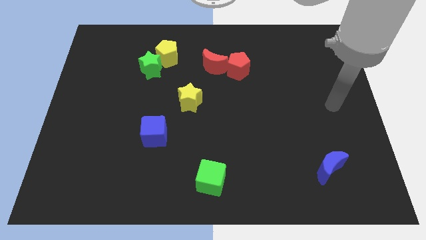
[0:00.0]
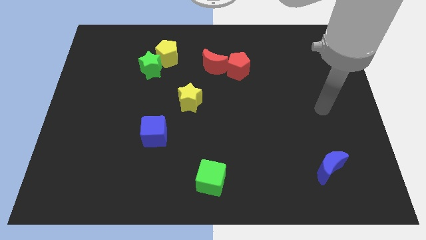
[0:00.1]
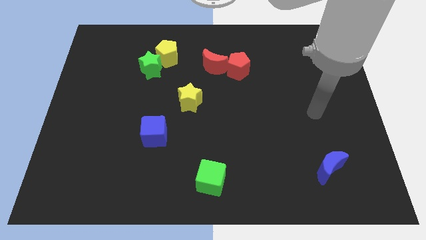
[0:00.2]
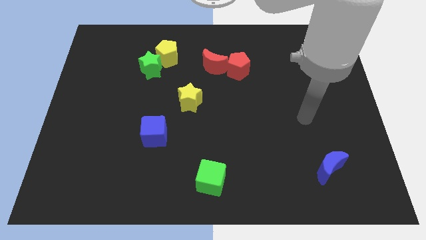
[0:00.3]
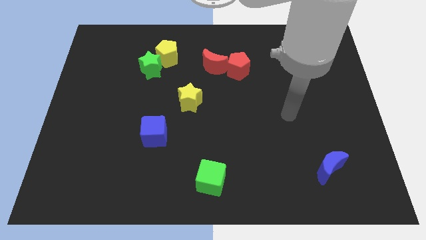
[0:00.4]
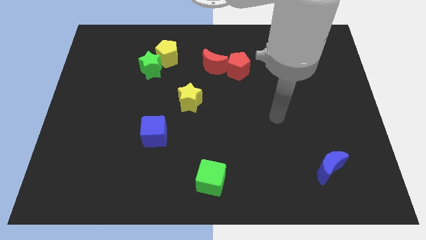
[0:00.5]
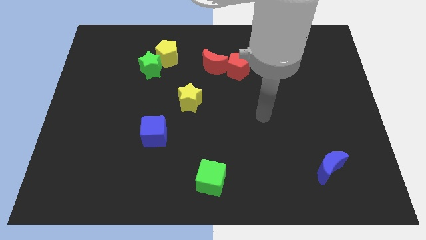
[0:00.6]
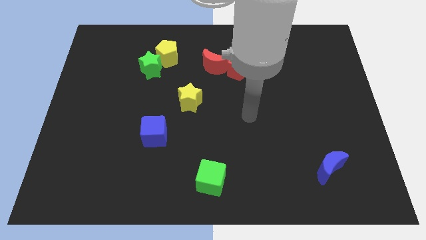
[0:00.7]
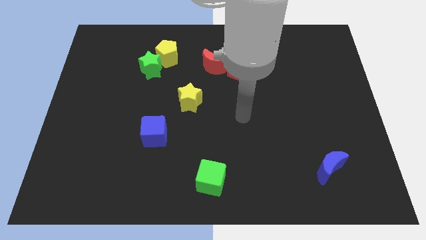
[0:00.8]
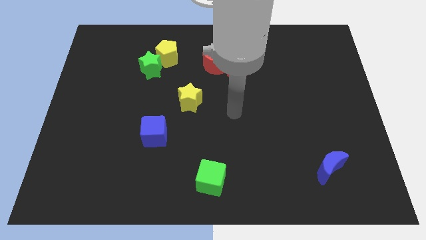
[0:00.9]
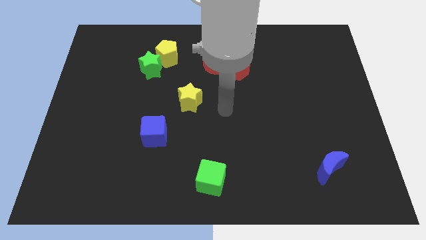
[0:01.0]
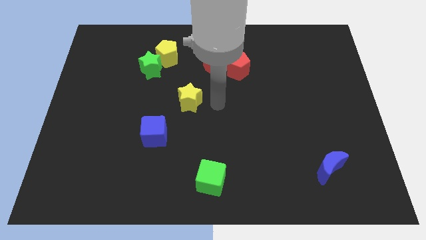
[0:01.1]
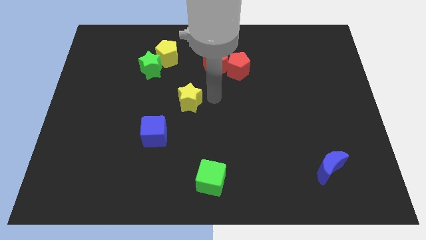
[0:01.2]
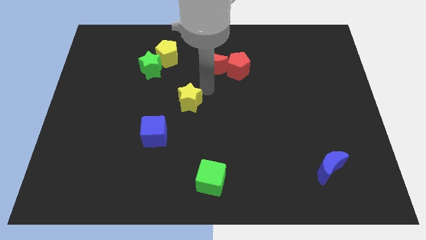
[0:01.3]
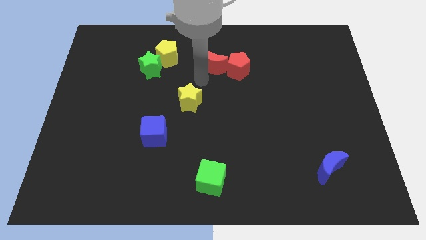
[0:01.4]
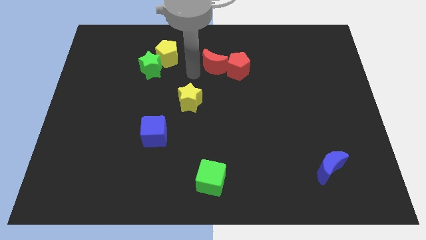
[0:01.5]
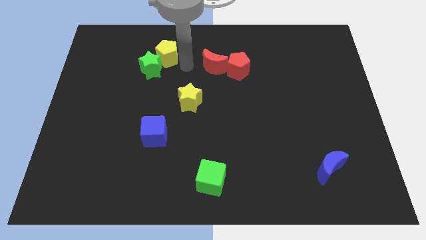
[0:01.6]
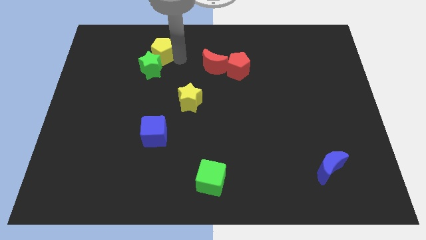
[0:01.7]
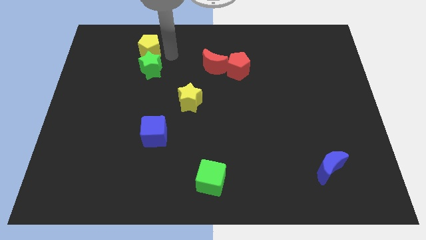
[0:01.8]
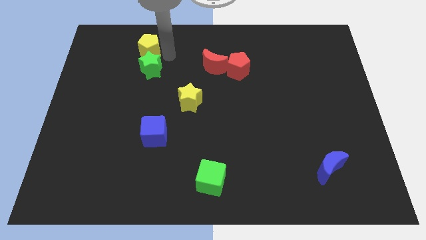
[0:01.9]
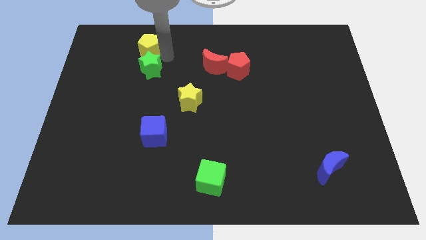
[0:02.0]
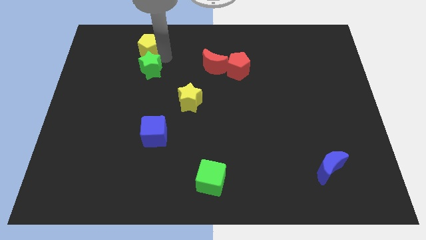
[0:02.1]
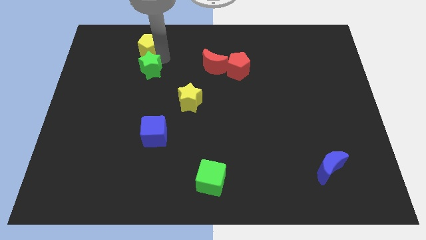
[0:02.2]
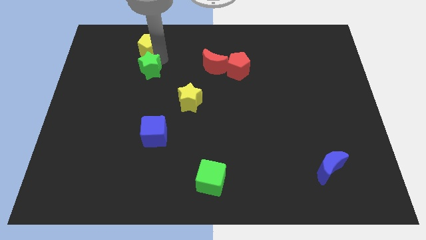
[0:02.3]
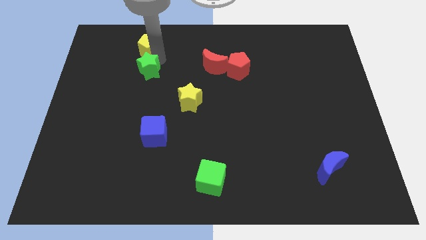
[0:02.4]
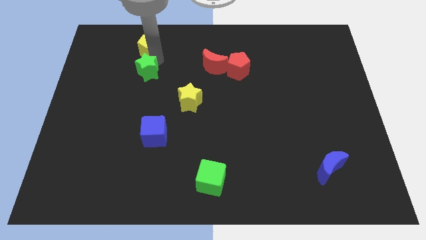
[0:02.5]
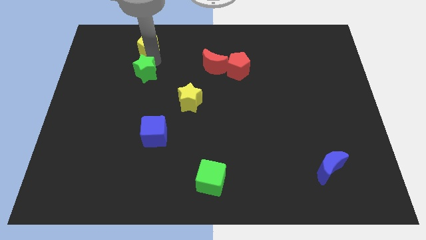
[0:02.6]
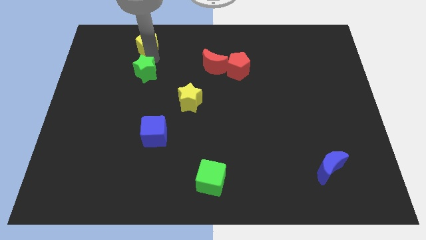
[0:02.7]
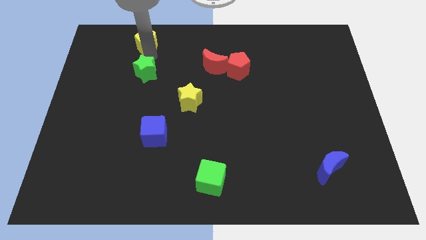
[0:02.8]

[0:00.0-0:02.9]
pull the green star apart from the yellow pentagon

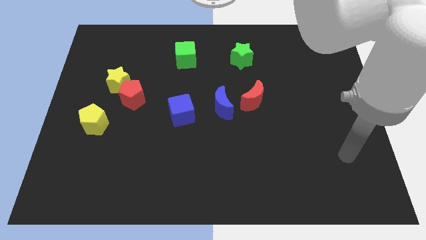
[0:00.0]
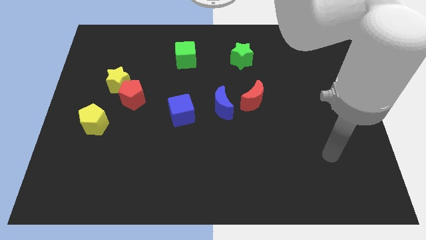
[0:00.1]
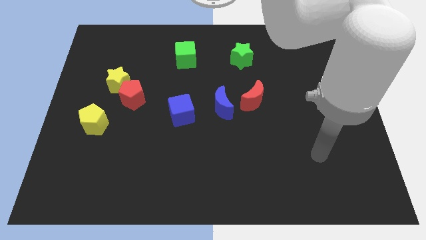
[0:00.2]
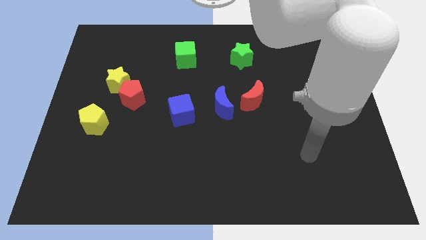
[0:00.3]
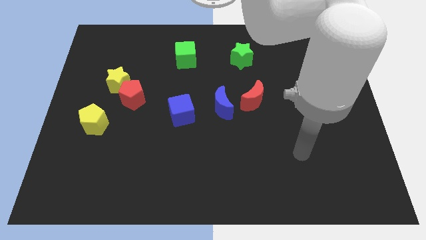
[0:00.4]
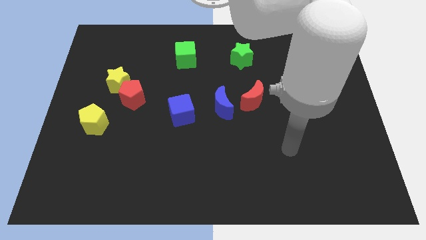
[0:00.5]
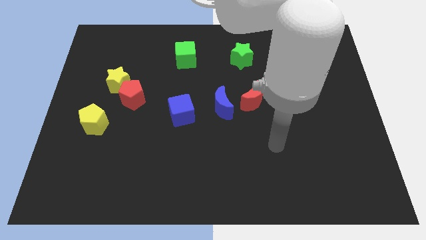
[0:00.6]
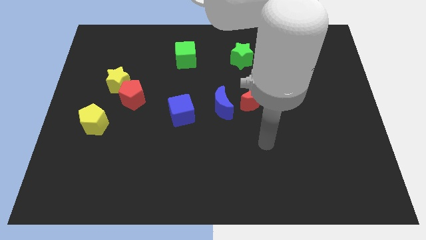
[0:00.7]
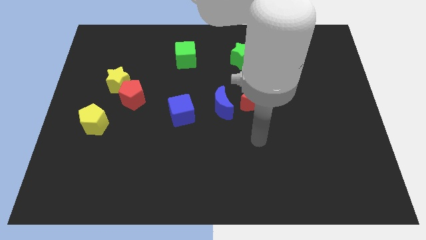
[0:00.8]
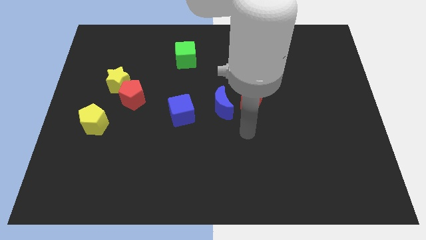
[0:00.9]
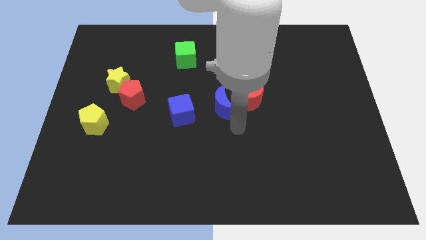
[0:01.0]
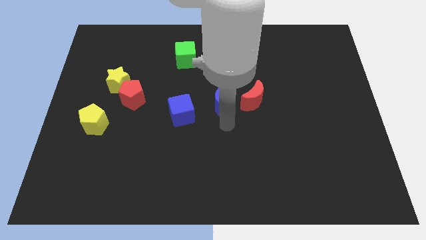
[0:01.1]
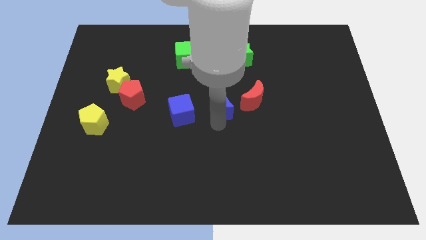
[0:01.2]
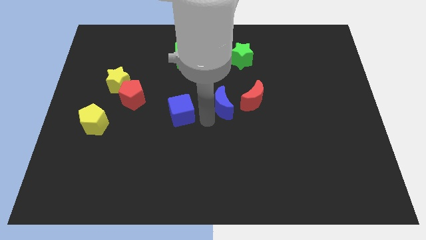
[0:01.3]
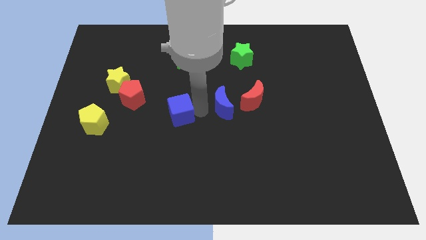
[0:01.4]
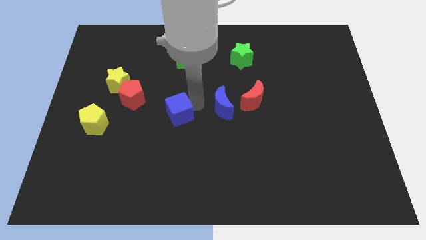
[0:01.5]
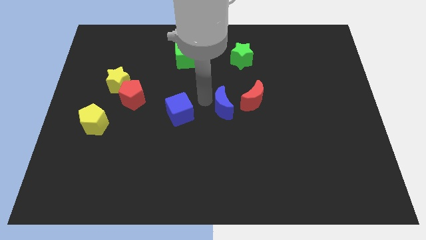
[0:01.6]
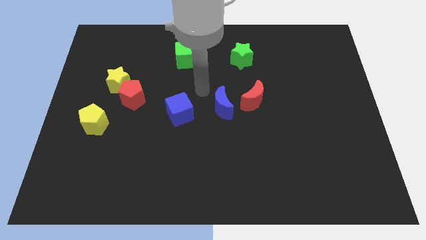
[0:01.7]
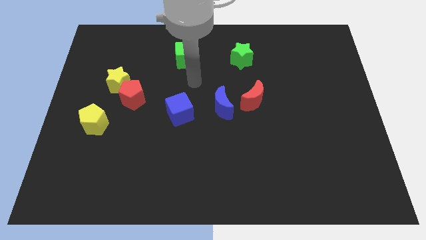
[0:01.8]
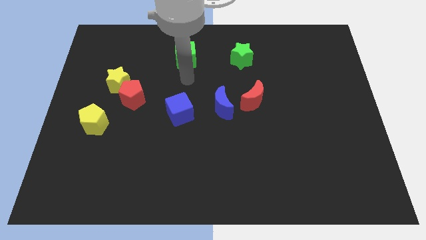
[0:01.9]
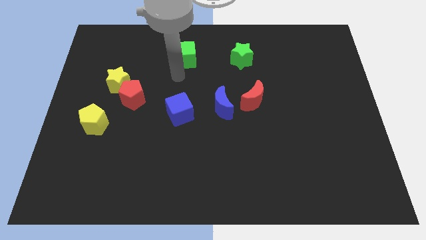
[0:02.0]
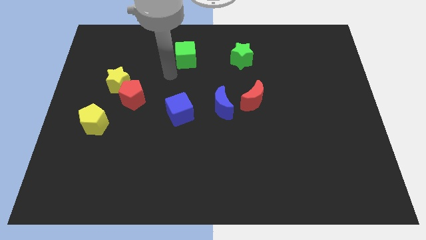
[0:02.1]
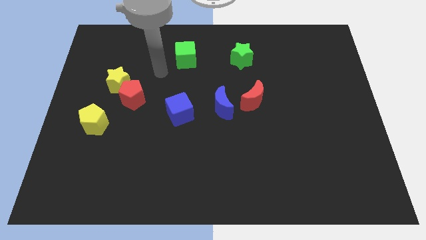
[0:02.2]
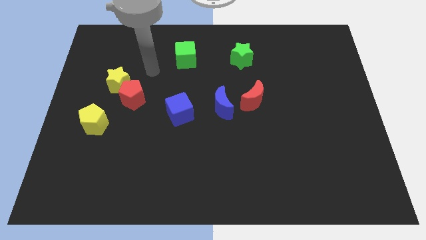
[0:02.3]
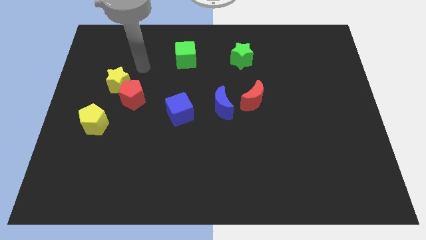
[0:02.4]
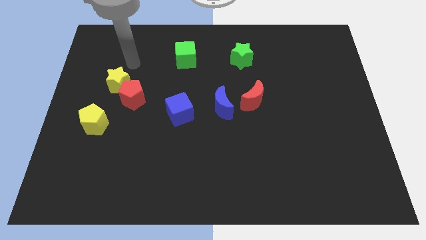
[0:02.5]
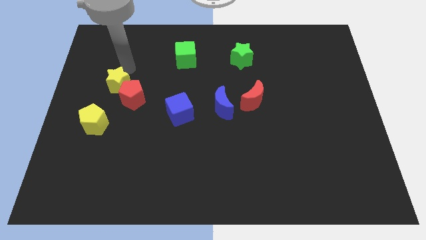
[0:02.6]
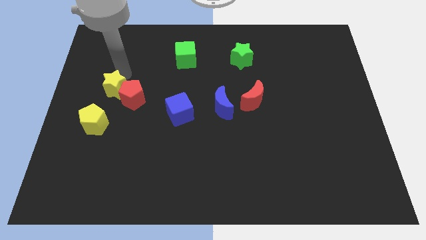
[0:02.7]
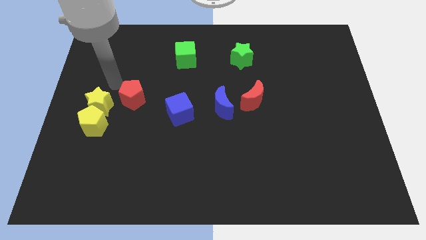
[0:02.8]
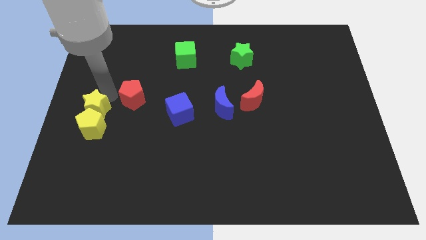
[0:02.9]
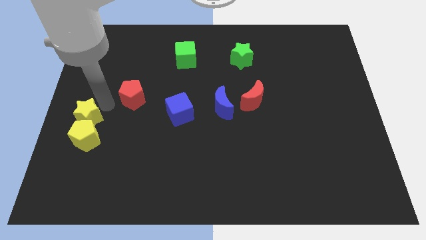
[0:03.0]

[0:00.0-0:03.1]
move the red pentagon away from the yellow star

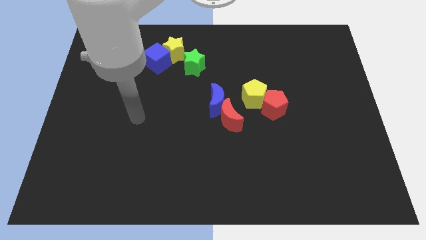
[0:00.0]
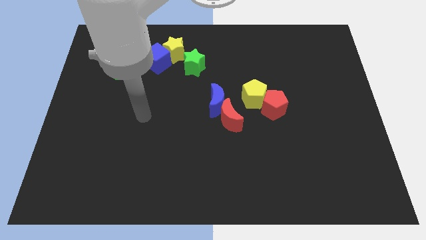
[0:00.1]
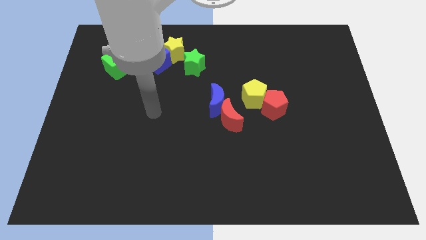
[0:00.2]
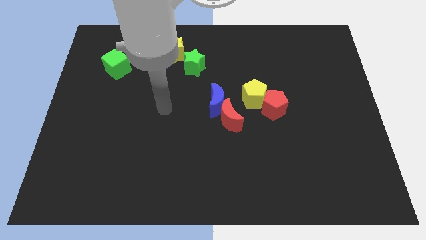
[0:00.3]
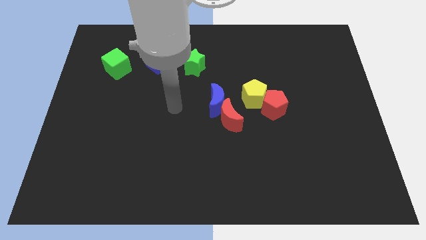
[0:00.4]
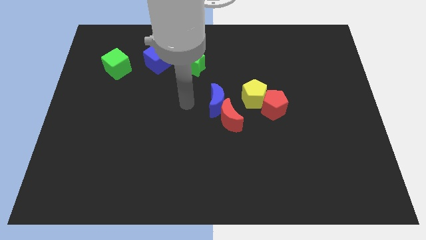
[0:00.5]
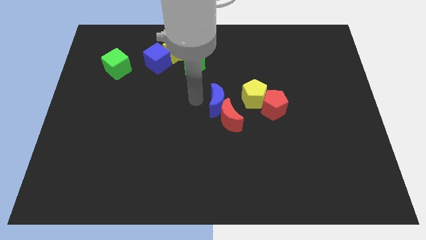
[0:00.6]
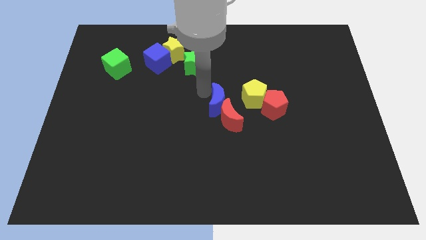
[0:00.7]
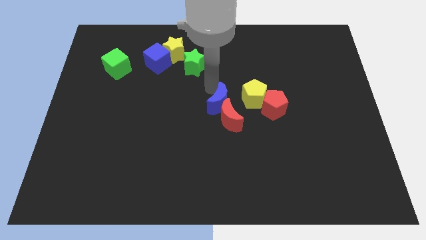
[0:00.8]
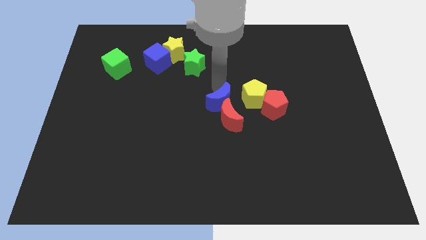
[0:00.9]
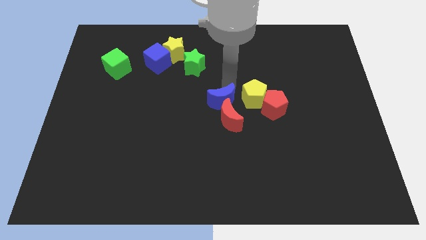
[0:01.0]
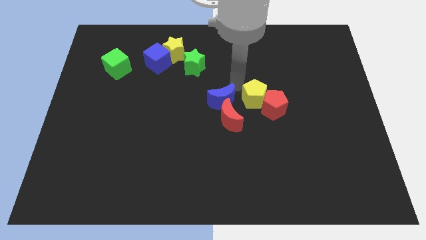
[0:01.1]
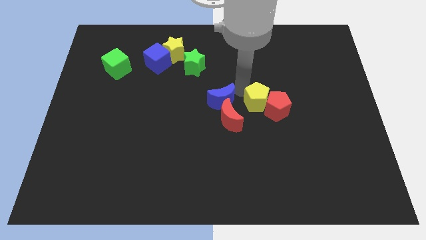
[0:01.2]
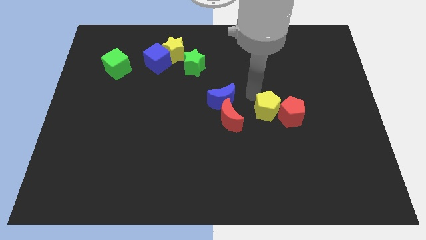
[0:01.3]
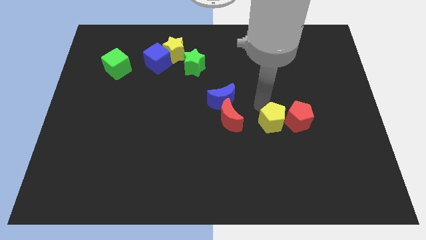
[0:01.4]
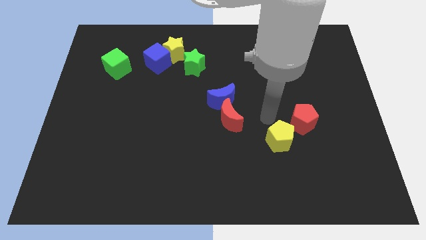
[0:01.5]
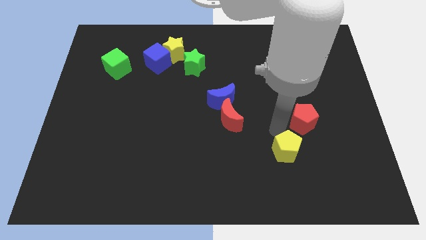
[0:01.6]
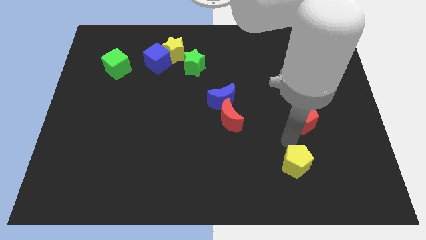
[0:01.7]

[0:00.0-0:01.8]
separate the red pentagon from the yellow pentagon

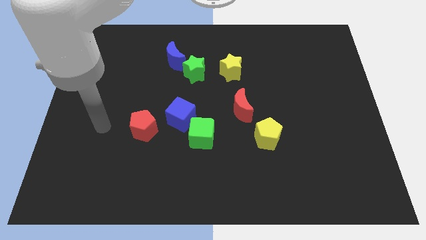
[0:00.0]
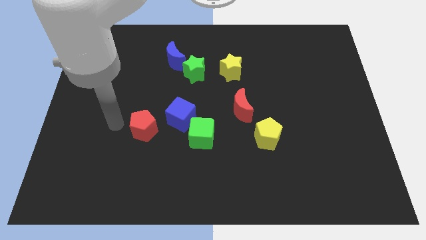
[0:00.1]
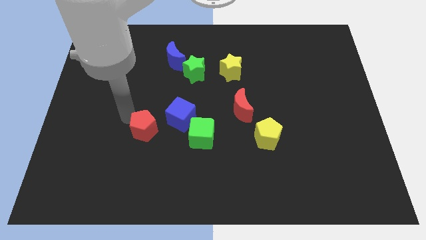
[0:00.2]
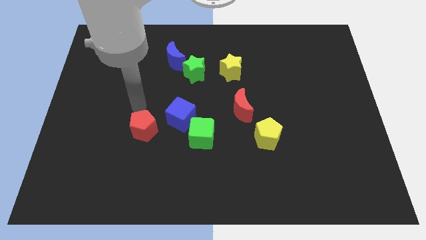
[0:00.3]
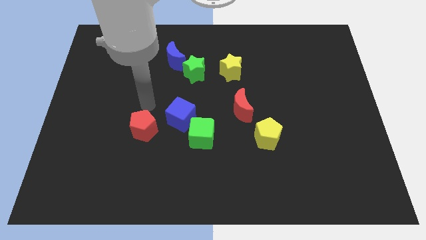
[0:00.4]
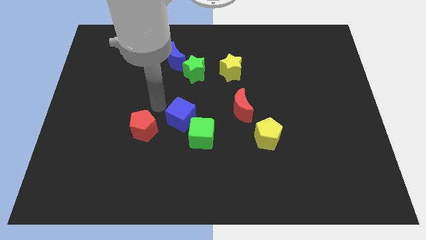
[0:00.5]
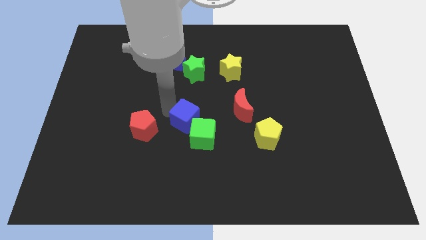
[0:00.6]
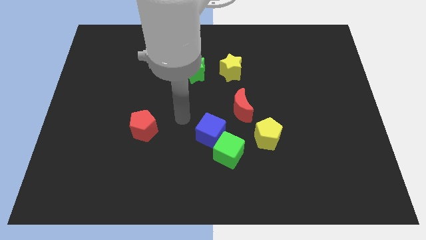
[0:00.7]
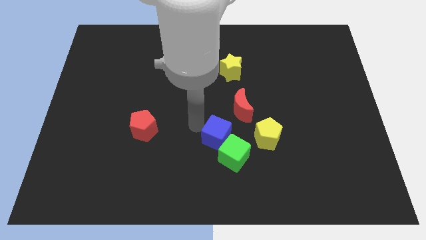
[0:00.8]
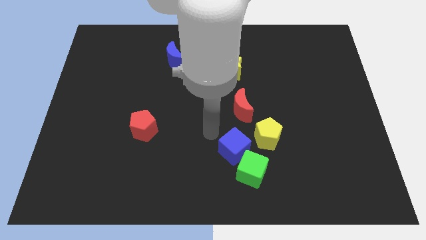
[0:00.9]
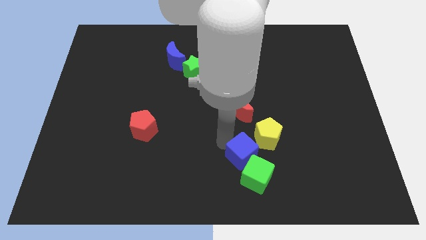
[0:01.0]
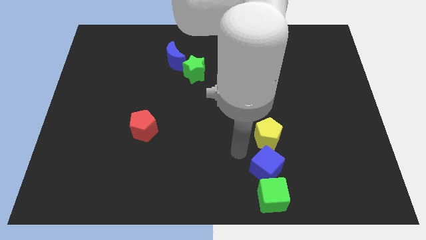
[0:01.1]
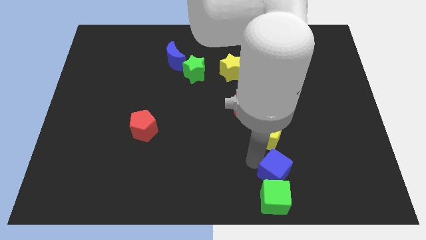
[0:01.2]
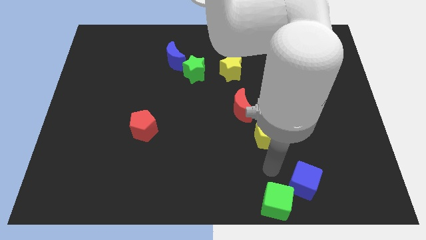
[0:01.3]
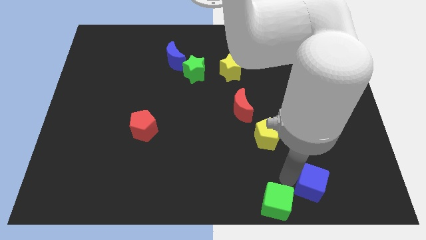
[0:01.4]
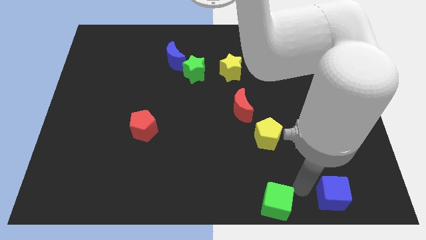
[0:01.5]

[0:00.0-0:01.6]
separate the green cube from the blue cube

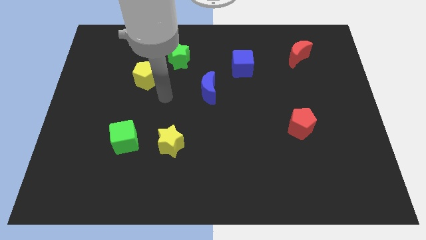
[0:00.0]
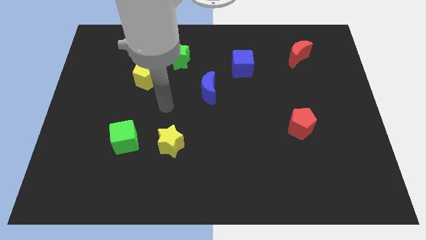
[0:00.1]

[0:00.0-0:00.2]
pull the green cube apart from the yellow star
